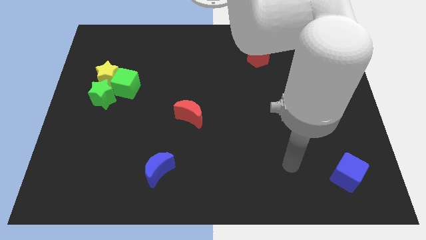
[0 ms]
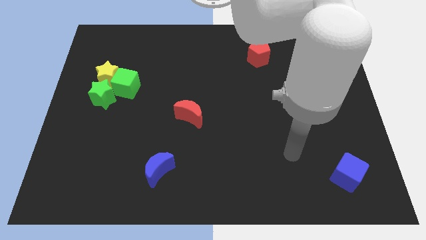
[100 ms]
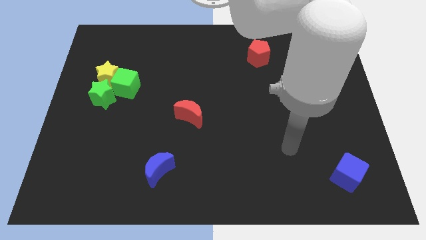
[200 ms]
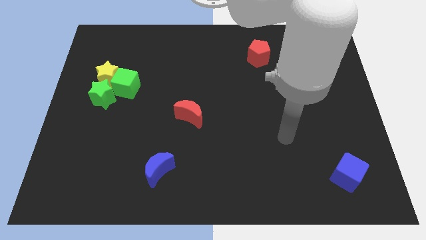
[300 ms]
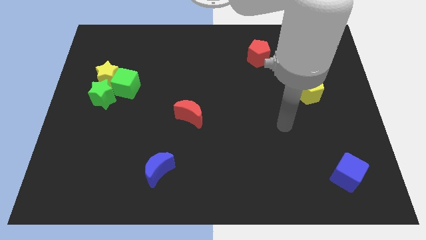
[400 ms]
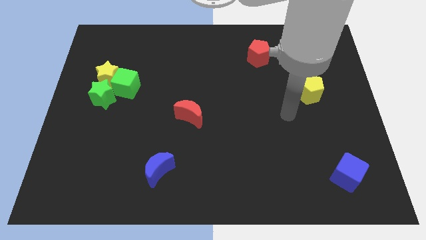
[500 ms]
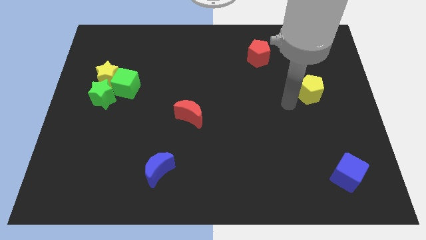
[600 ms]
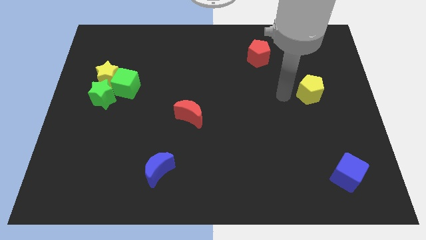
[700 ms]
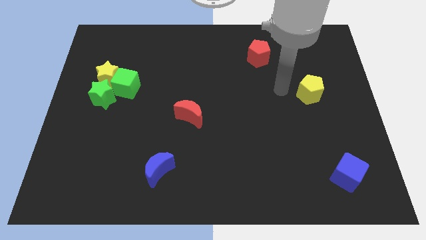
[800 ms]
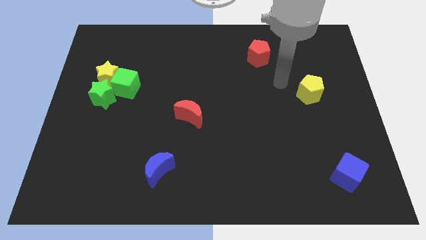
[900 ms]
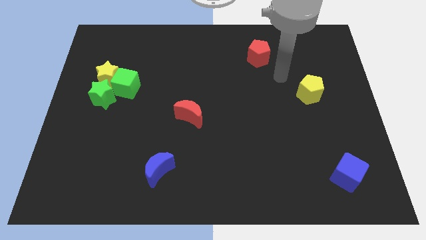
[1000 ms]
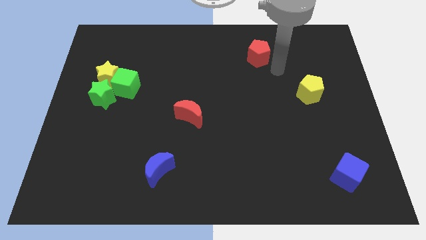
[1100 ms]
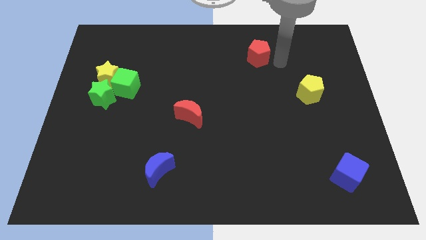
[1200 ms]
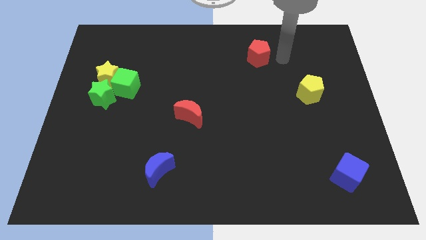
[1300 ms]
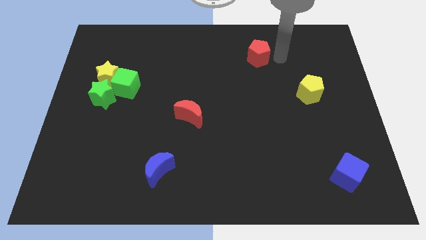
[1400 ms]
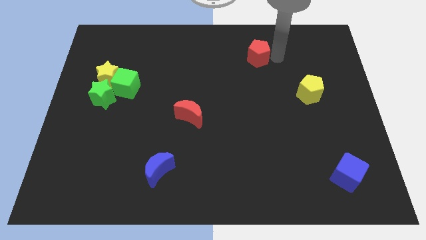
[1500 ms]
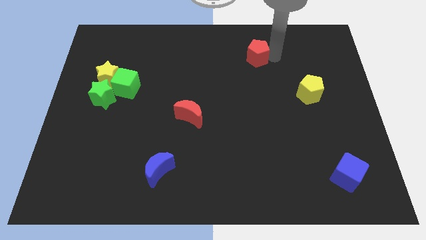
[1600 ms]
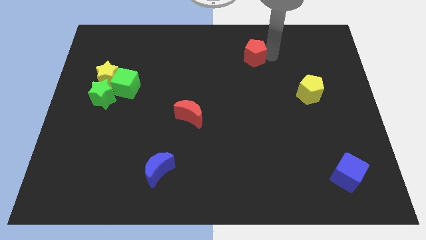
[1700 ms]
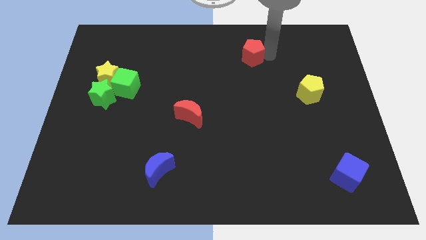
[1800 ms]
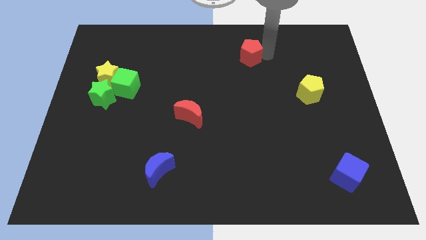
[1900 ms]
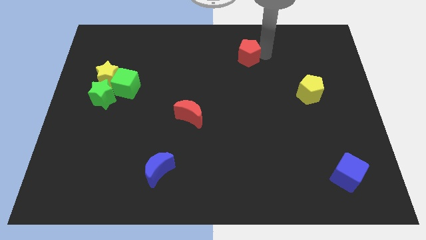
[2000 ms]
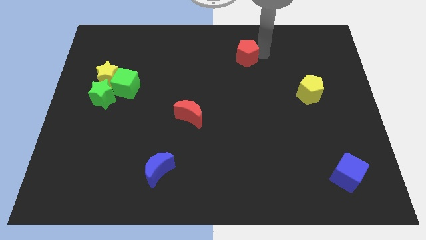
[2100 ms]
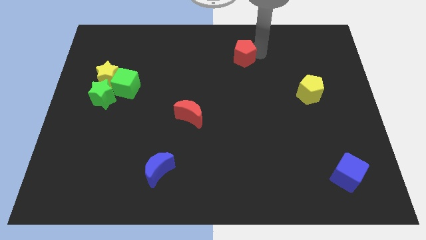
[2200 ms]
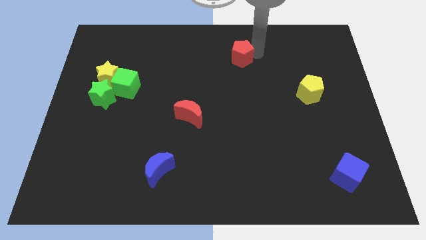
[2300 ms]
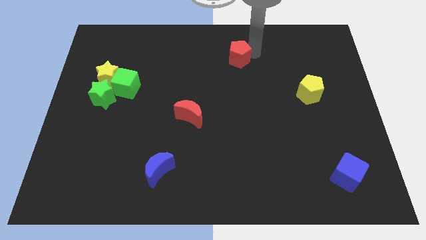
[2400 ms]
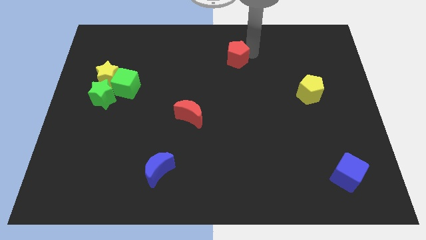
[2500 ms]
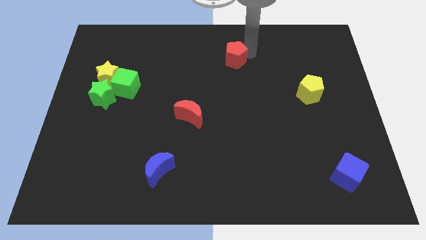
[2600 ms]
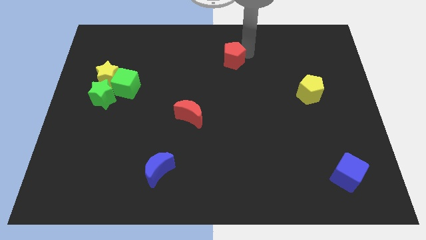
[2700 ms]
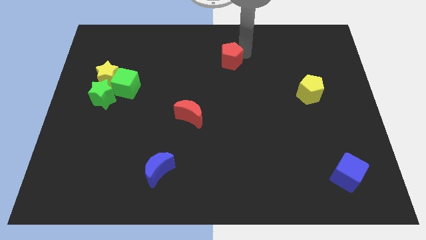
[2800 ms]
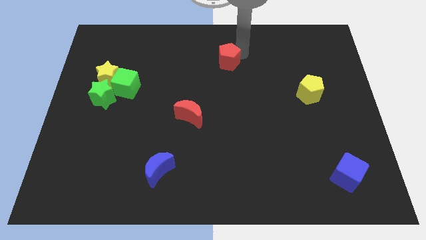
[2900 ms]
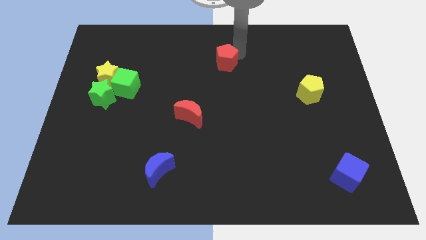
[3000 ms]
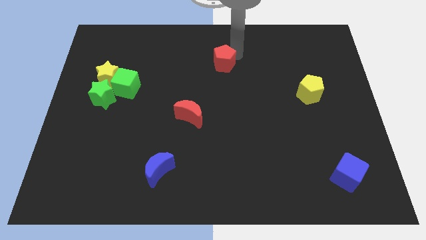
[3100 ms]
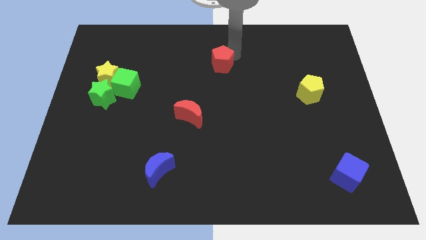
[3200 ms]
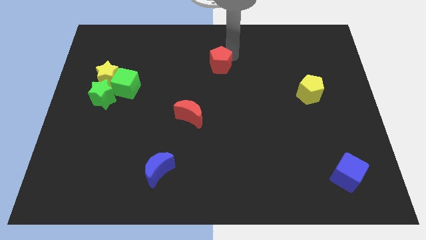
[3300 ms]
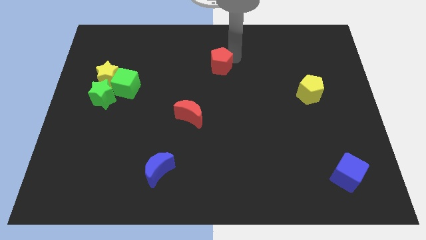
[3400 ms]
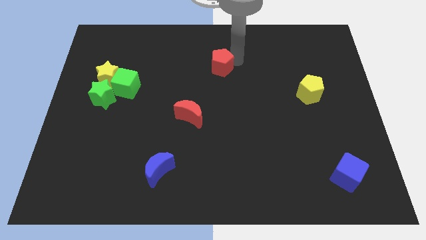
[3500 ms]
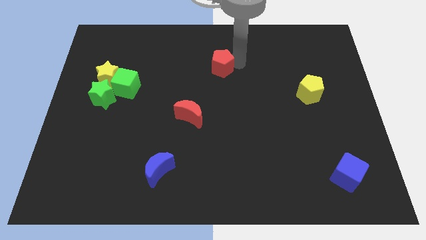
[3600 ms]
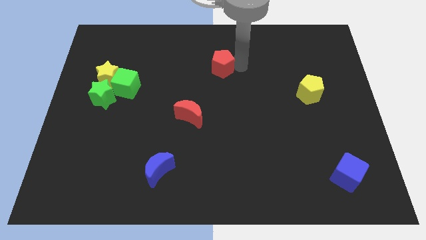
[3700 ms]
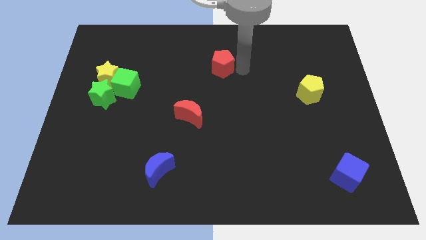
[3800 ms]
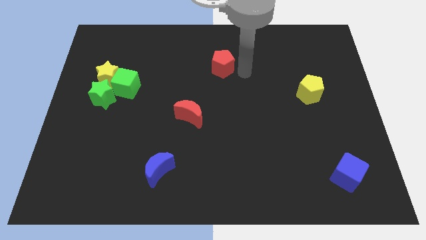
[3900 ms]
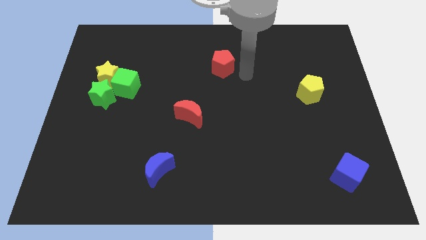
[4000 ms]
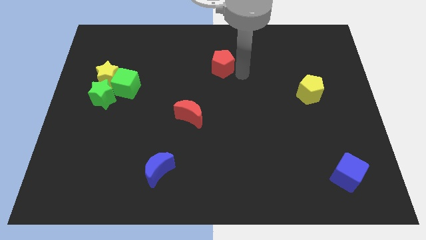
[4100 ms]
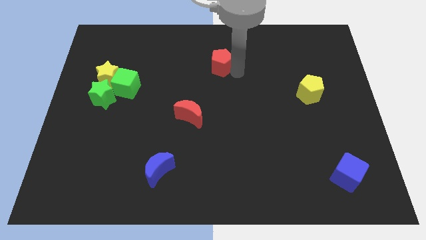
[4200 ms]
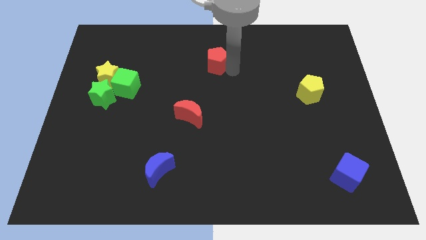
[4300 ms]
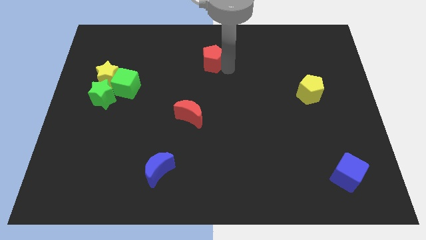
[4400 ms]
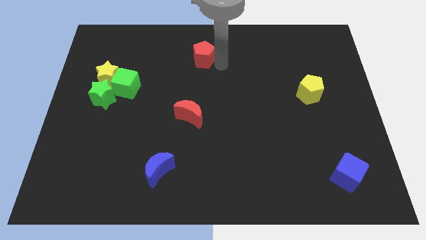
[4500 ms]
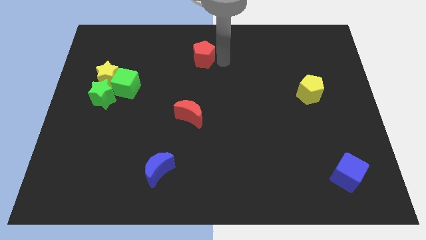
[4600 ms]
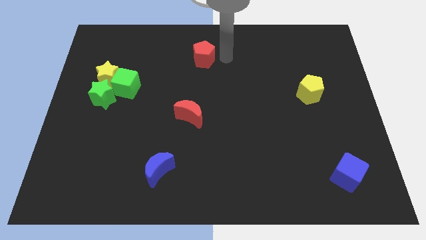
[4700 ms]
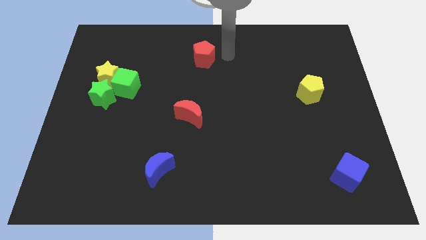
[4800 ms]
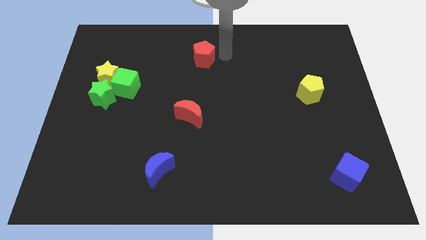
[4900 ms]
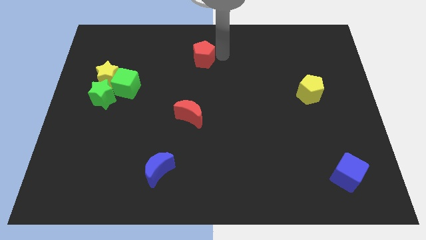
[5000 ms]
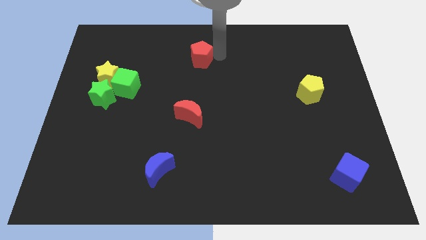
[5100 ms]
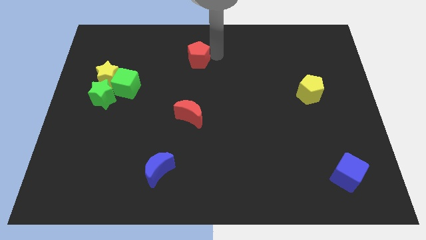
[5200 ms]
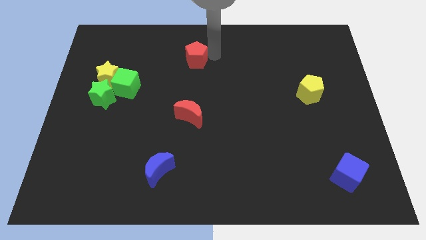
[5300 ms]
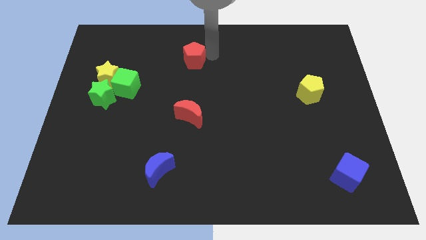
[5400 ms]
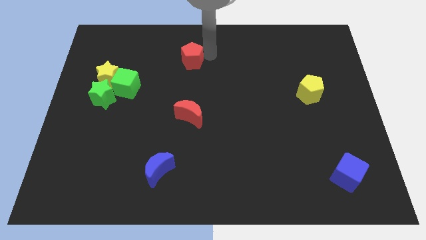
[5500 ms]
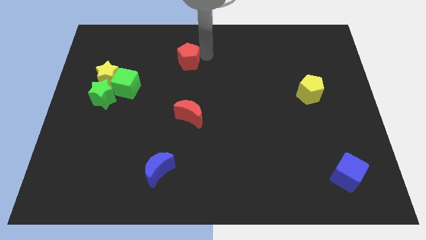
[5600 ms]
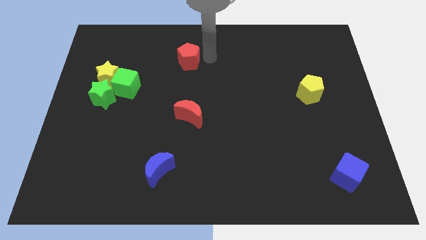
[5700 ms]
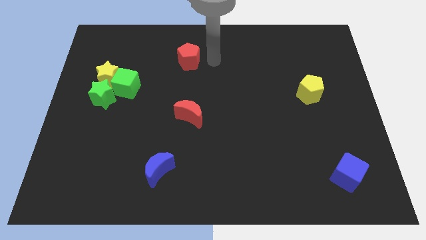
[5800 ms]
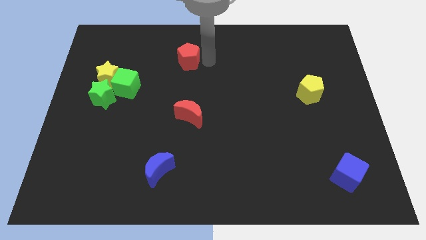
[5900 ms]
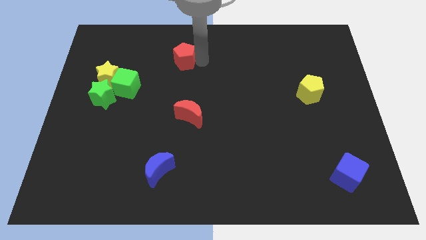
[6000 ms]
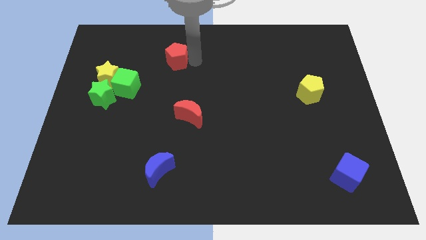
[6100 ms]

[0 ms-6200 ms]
move the red pentagon to the left

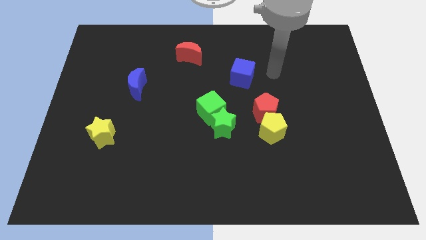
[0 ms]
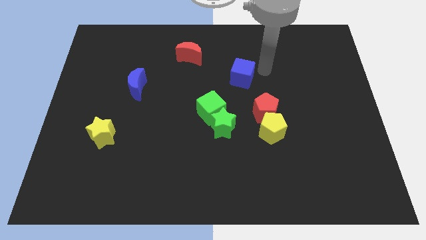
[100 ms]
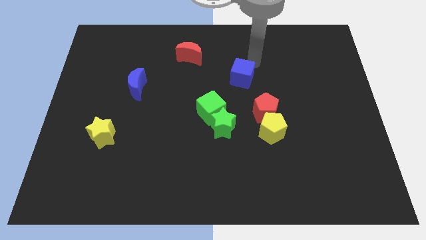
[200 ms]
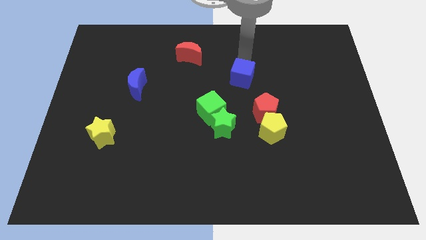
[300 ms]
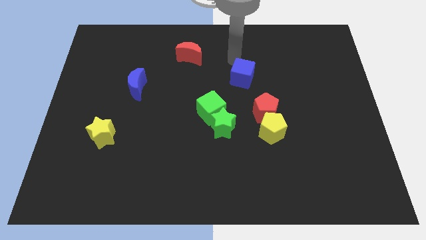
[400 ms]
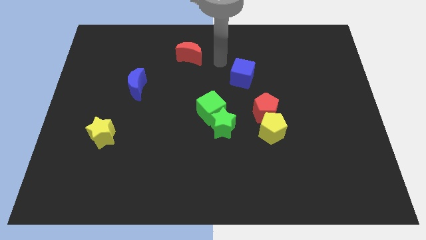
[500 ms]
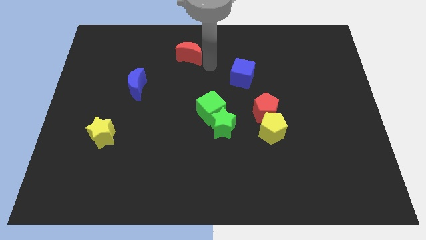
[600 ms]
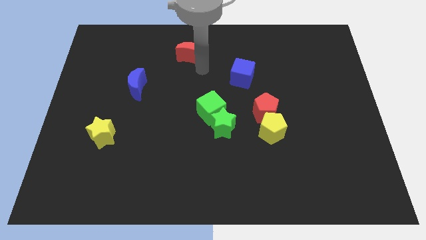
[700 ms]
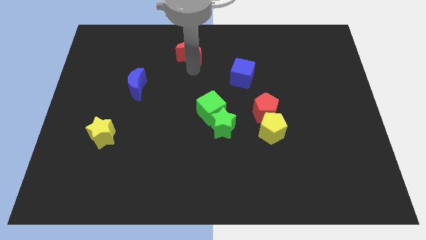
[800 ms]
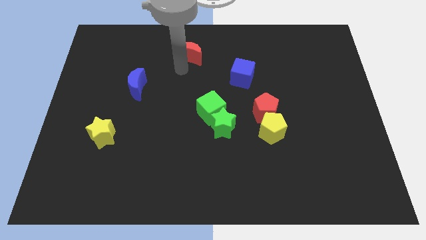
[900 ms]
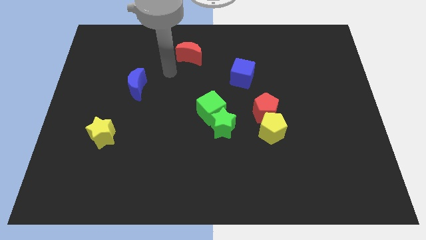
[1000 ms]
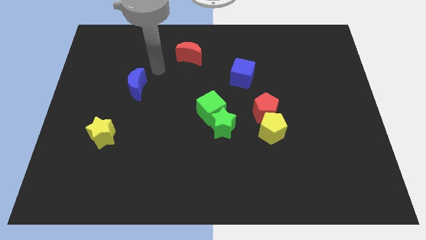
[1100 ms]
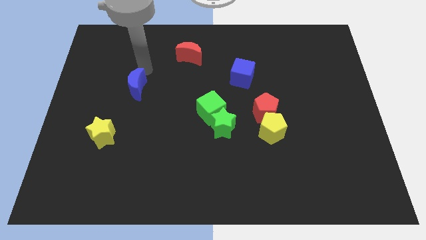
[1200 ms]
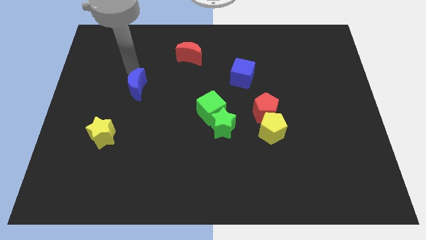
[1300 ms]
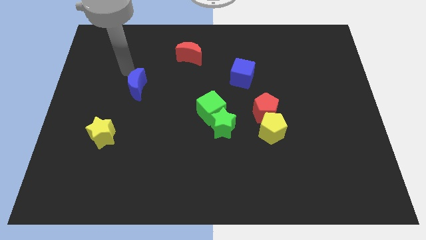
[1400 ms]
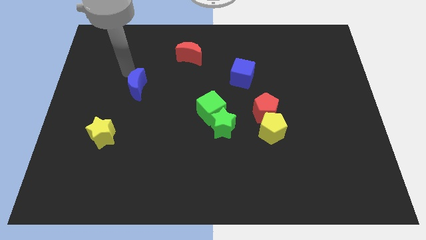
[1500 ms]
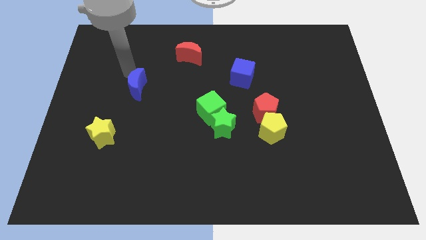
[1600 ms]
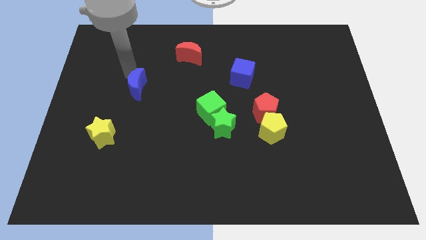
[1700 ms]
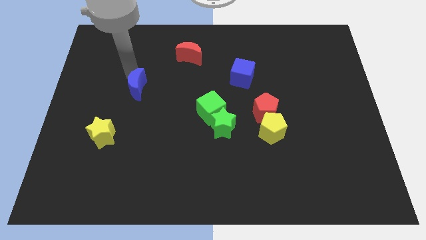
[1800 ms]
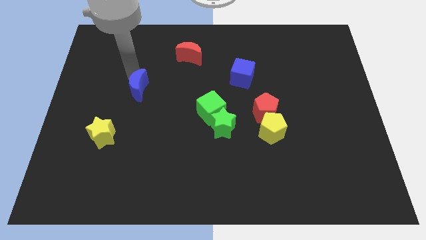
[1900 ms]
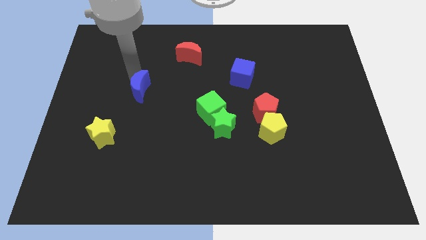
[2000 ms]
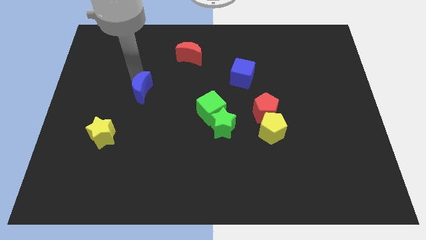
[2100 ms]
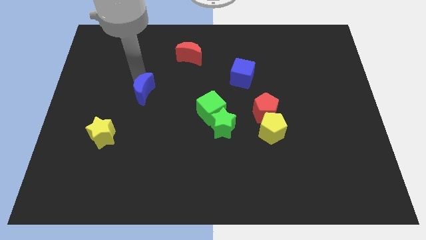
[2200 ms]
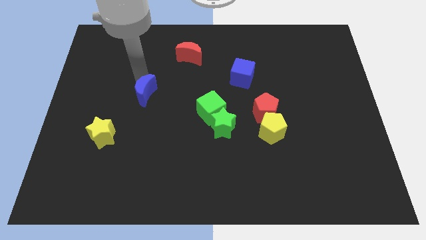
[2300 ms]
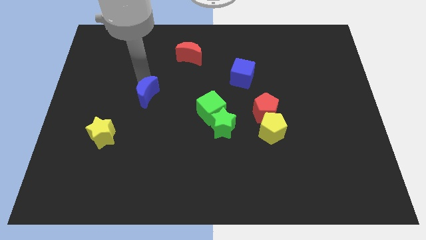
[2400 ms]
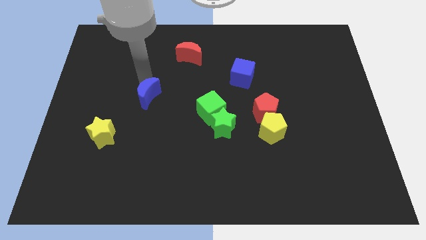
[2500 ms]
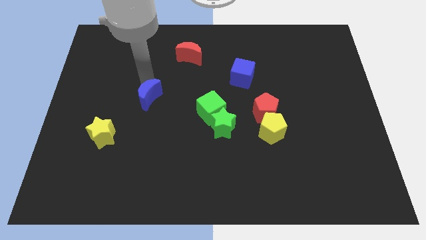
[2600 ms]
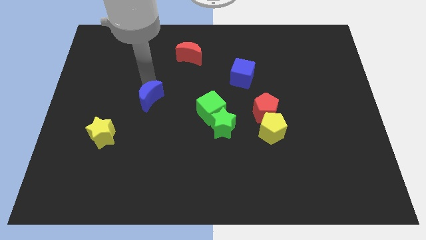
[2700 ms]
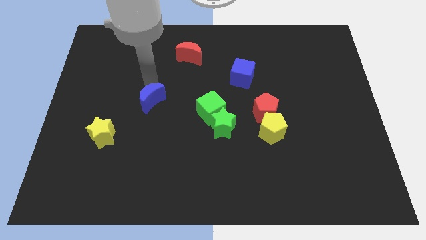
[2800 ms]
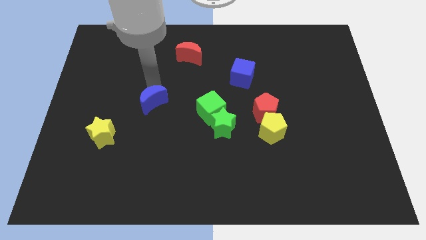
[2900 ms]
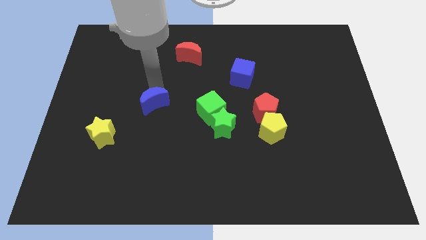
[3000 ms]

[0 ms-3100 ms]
slide the blue moon a little downwards and right diagonally
